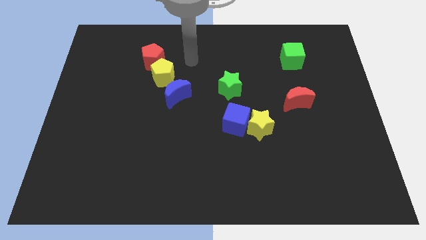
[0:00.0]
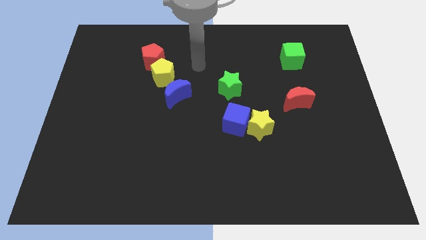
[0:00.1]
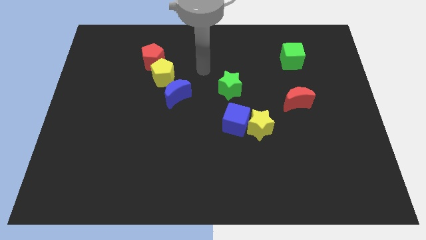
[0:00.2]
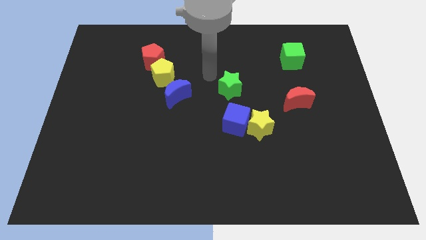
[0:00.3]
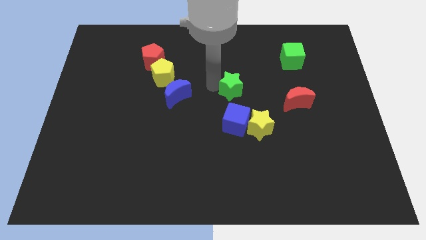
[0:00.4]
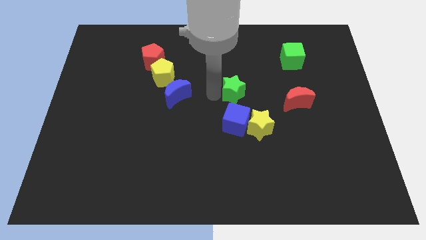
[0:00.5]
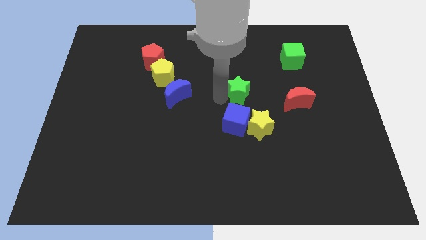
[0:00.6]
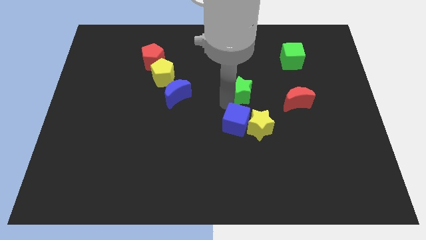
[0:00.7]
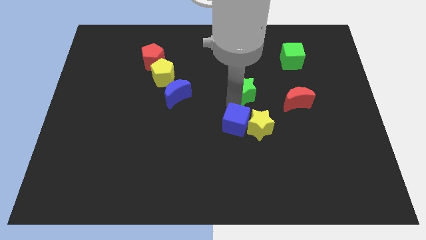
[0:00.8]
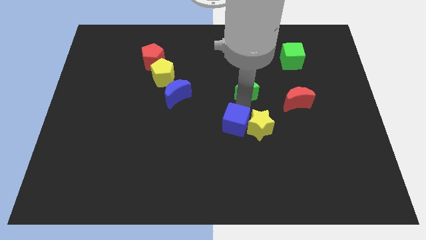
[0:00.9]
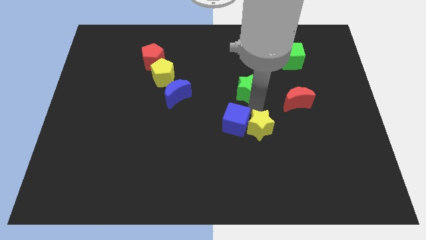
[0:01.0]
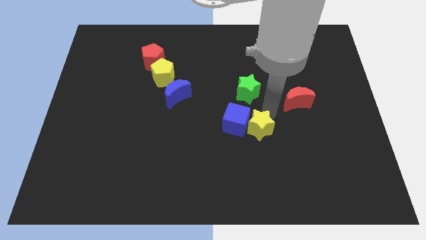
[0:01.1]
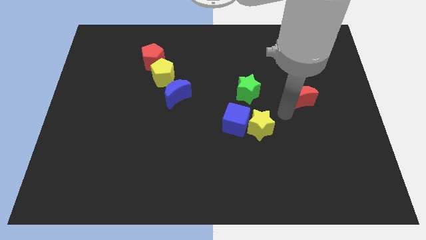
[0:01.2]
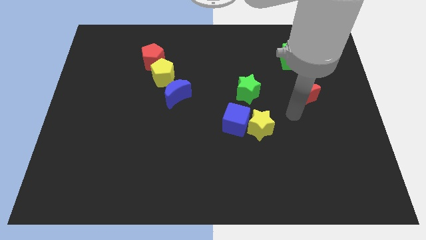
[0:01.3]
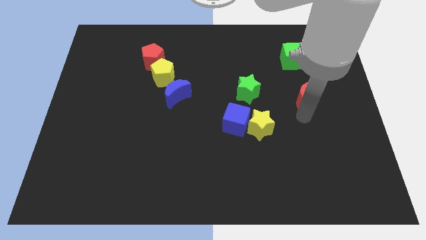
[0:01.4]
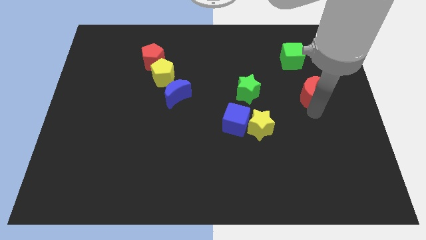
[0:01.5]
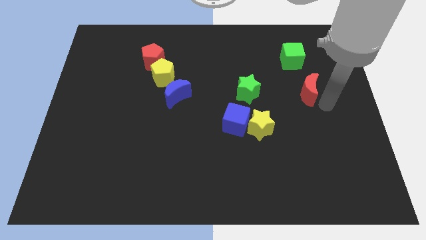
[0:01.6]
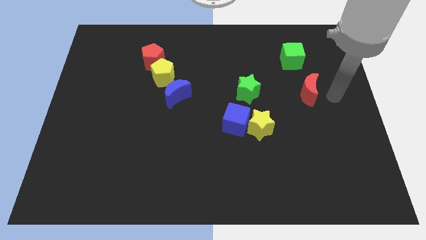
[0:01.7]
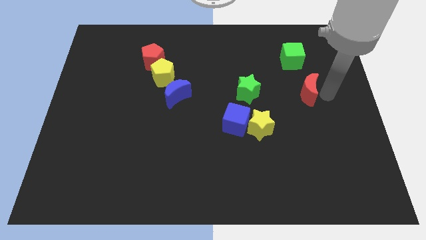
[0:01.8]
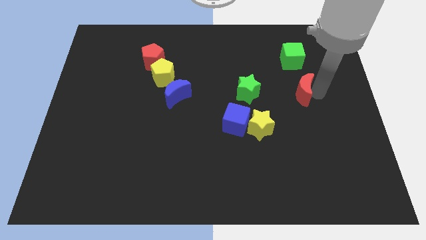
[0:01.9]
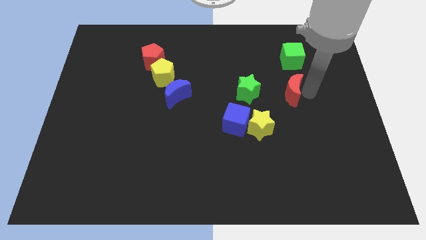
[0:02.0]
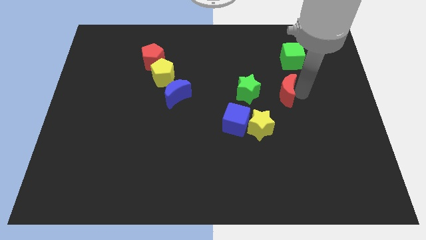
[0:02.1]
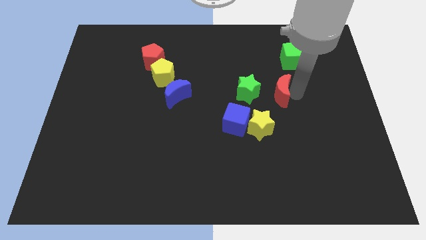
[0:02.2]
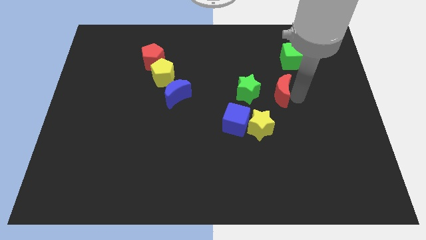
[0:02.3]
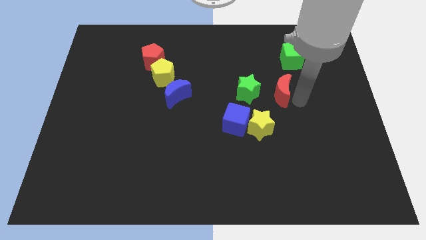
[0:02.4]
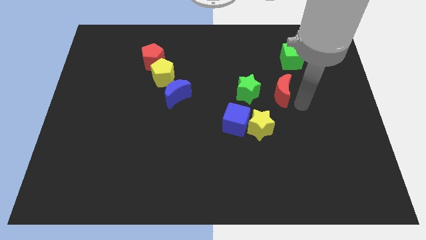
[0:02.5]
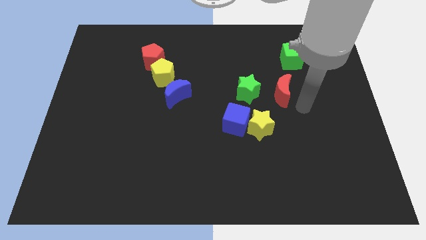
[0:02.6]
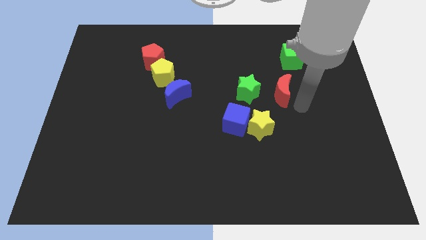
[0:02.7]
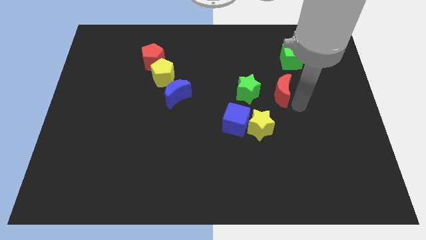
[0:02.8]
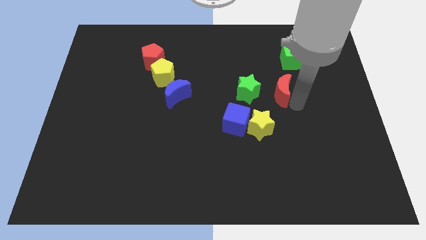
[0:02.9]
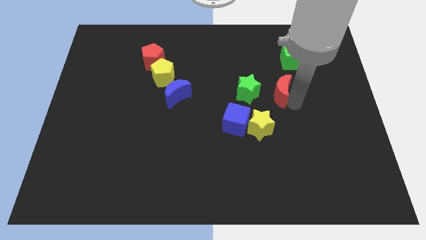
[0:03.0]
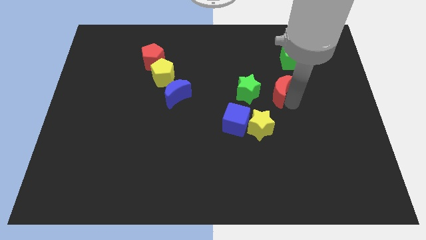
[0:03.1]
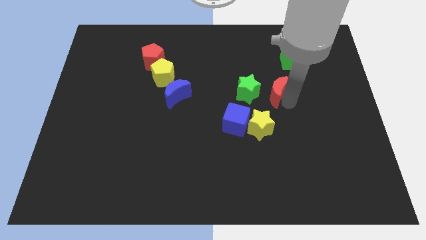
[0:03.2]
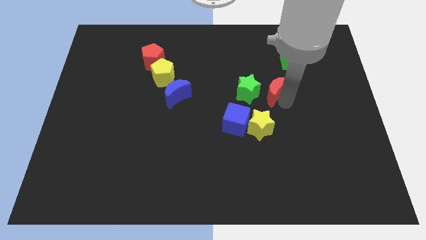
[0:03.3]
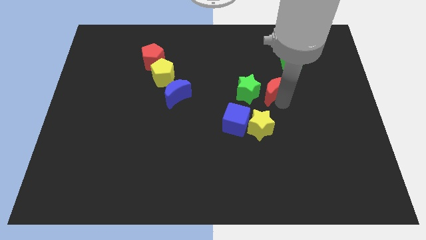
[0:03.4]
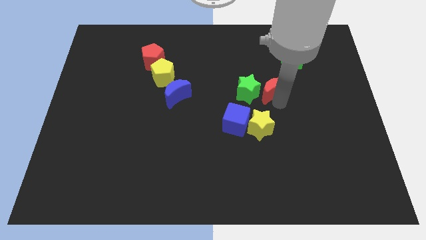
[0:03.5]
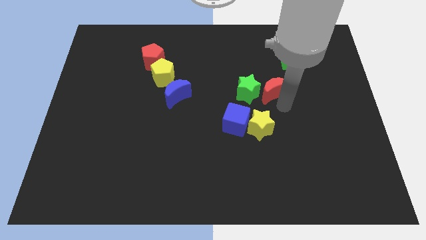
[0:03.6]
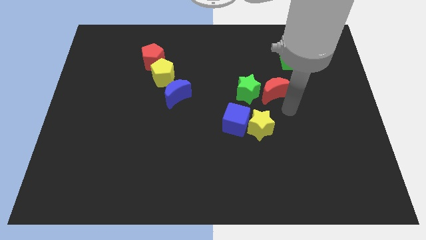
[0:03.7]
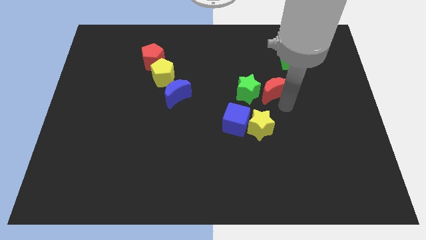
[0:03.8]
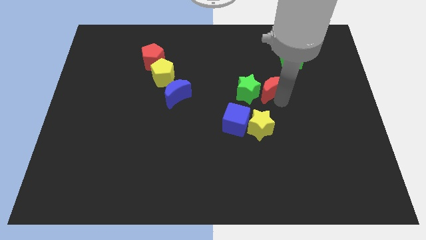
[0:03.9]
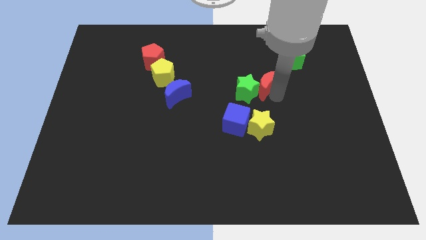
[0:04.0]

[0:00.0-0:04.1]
slightly push the red moon upwards and then left

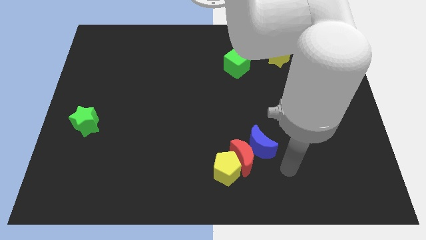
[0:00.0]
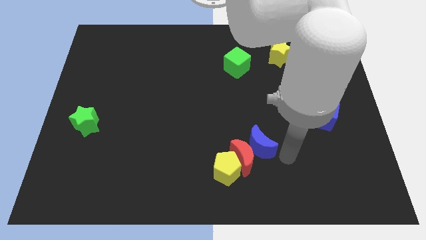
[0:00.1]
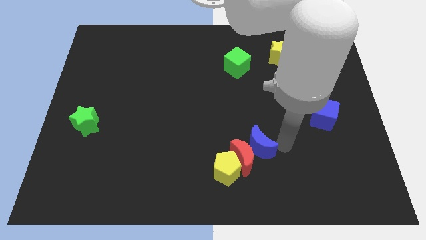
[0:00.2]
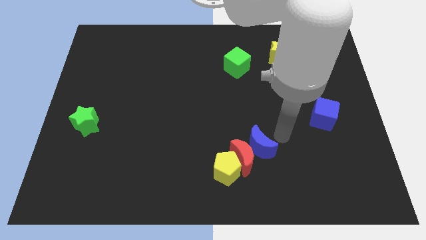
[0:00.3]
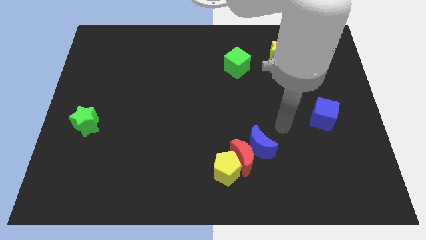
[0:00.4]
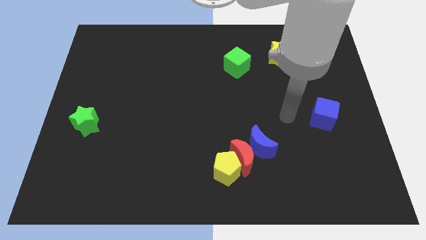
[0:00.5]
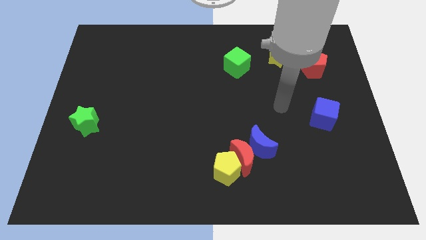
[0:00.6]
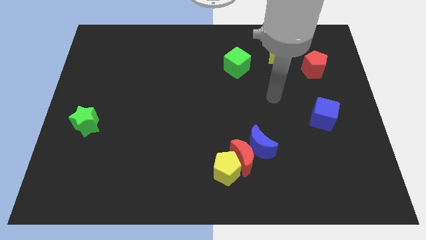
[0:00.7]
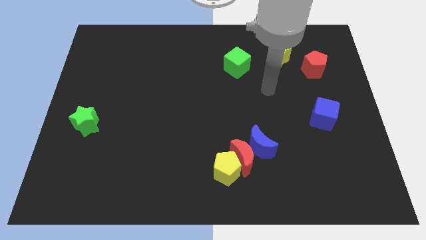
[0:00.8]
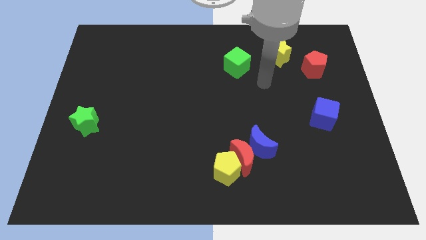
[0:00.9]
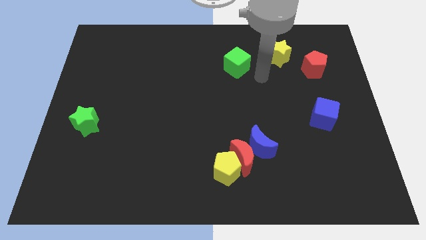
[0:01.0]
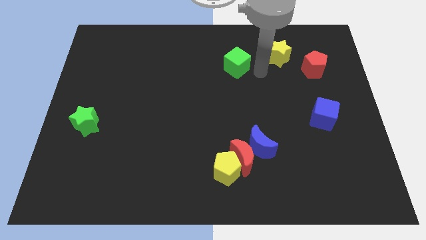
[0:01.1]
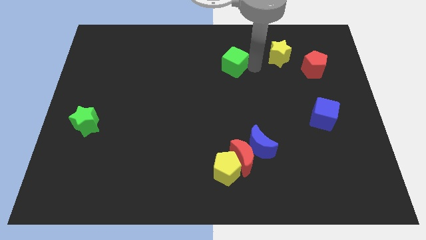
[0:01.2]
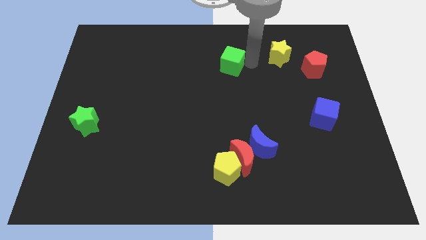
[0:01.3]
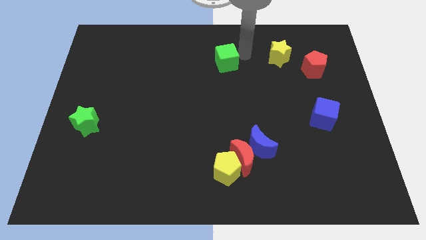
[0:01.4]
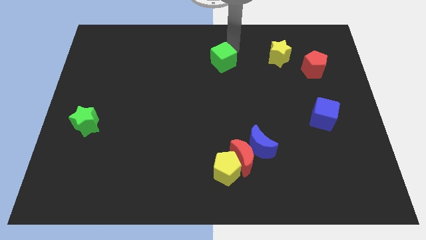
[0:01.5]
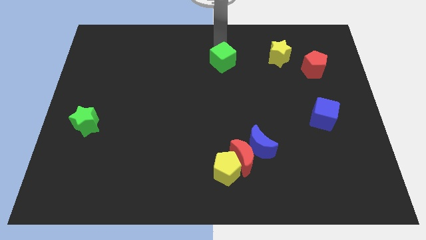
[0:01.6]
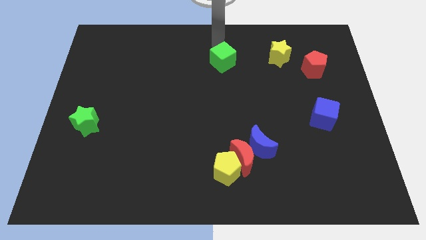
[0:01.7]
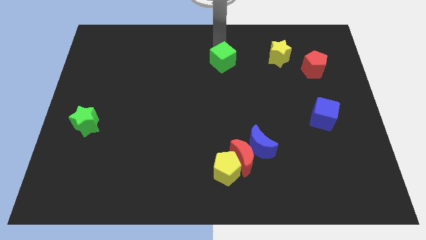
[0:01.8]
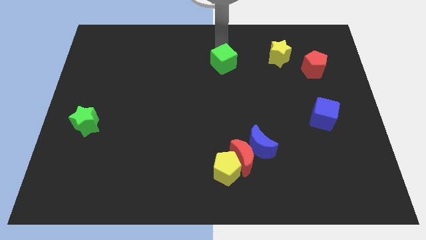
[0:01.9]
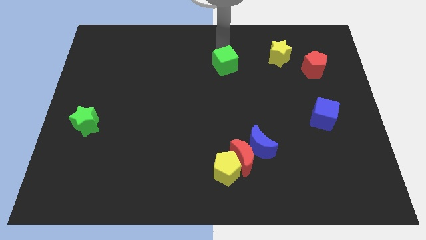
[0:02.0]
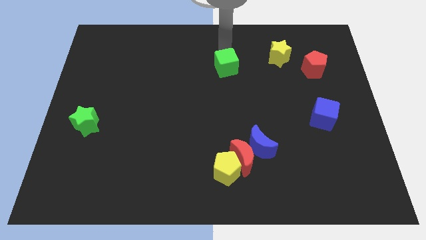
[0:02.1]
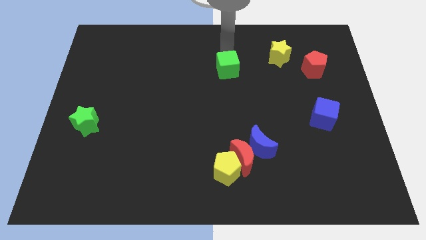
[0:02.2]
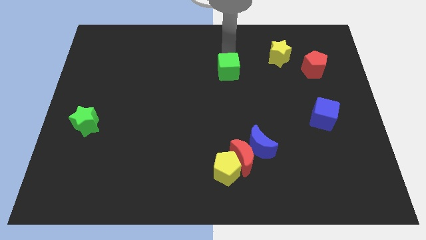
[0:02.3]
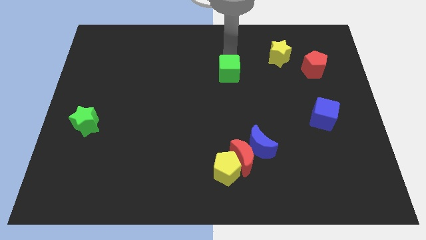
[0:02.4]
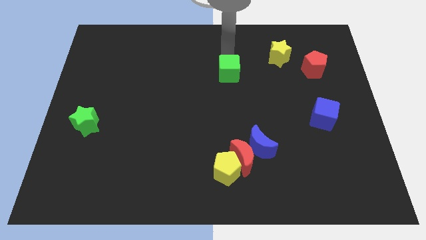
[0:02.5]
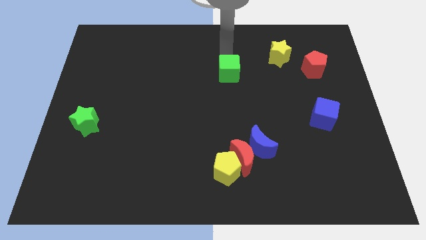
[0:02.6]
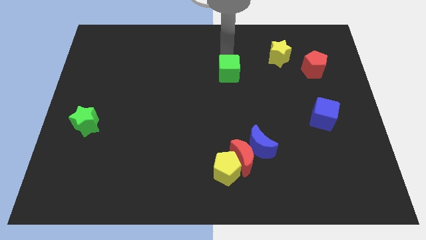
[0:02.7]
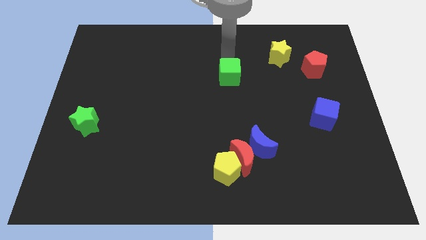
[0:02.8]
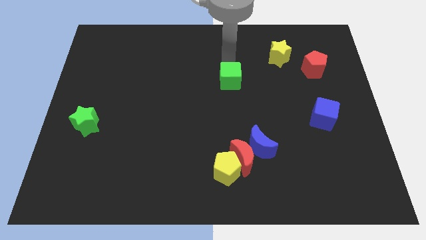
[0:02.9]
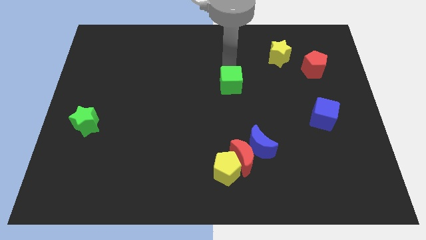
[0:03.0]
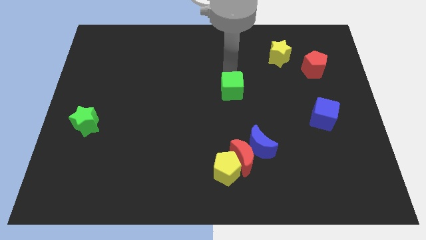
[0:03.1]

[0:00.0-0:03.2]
move the green cube a bit down

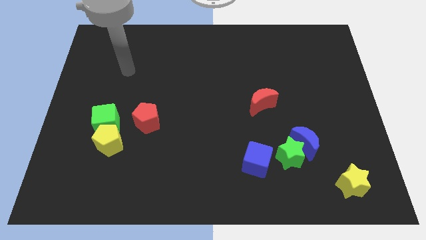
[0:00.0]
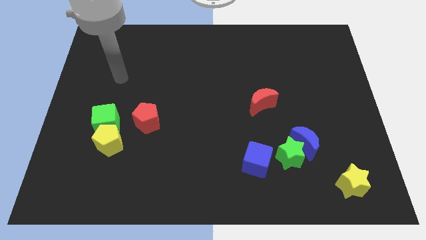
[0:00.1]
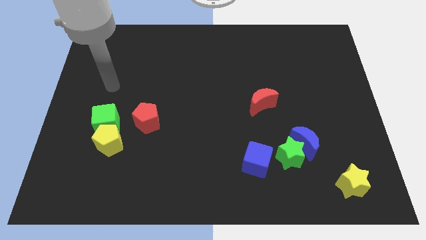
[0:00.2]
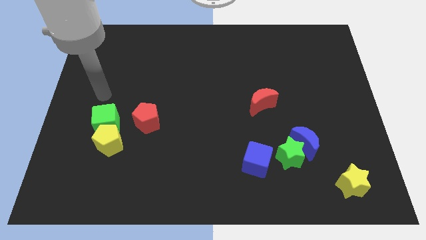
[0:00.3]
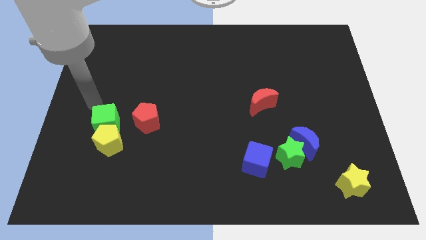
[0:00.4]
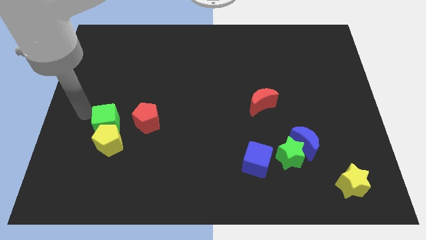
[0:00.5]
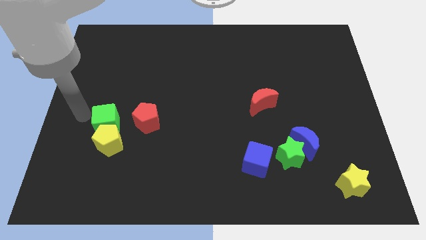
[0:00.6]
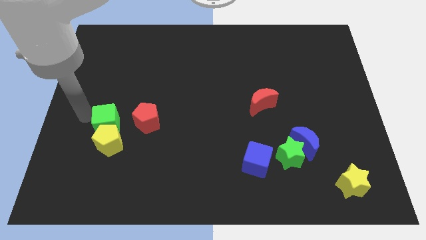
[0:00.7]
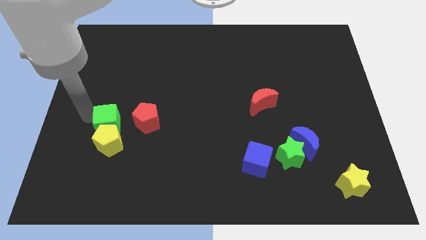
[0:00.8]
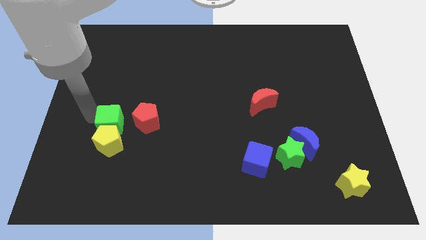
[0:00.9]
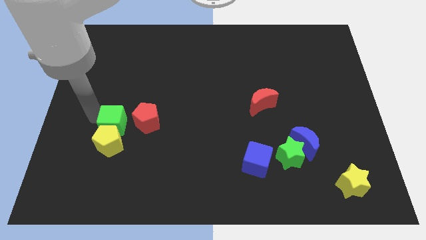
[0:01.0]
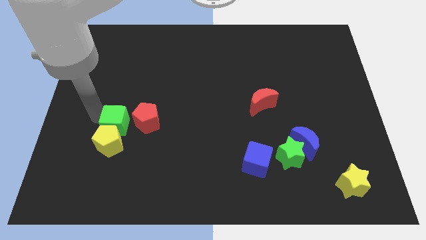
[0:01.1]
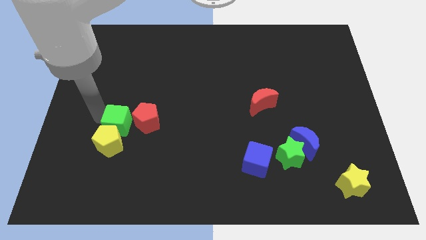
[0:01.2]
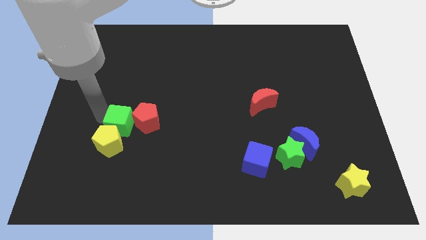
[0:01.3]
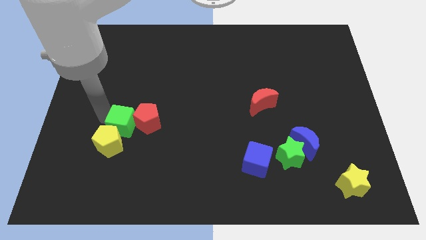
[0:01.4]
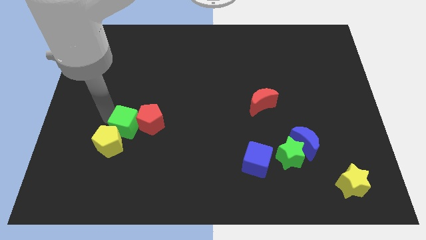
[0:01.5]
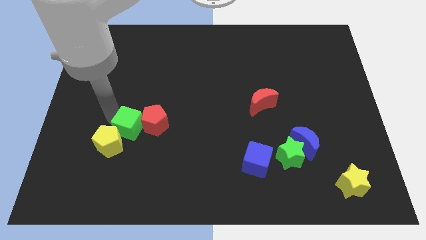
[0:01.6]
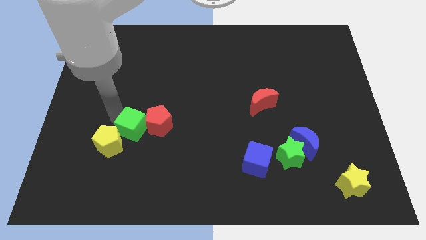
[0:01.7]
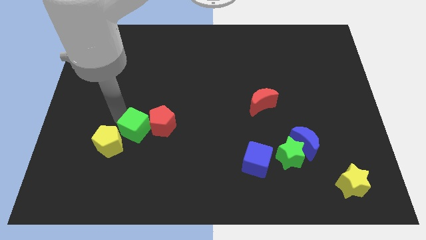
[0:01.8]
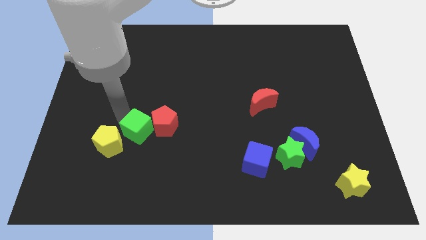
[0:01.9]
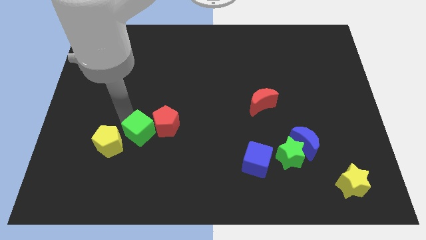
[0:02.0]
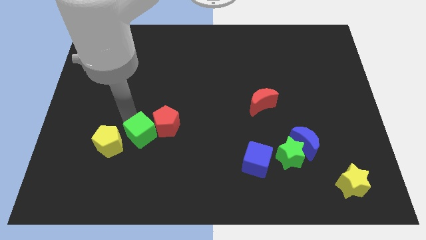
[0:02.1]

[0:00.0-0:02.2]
push the green cube diagonally downwards and to the right slightly
